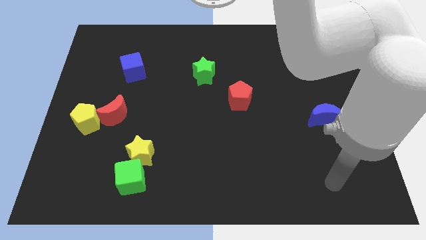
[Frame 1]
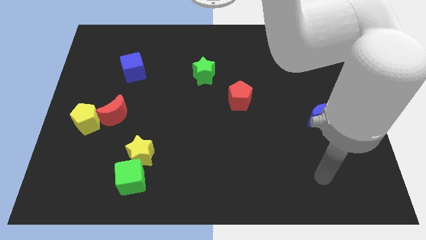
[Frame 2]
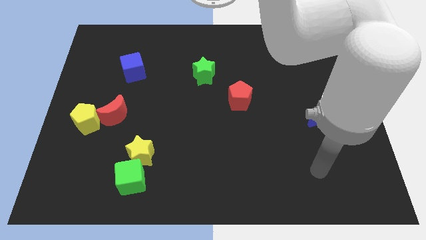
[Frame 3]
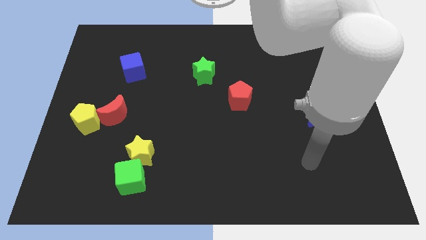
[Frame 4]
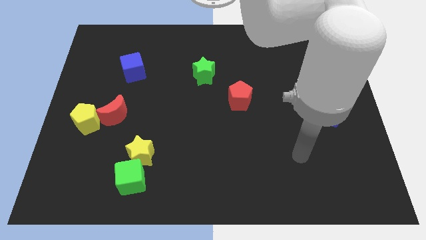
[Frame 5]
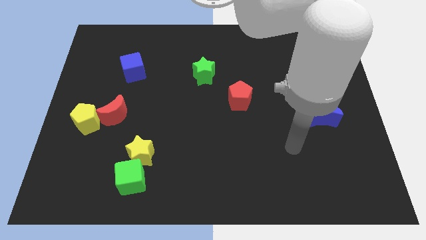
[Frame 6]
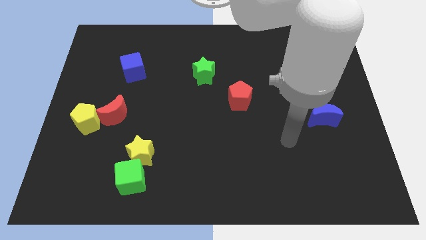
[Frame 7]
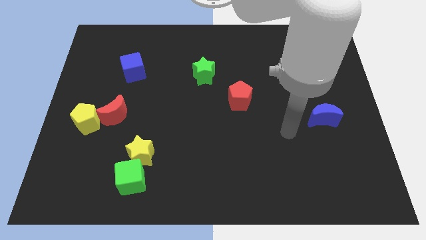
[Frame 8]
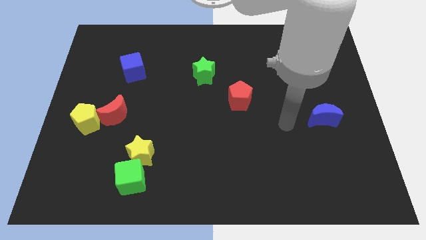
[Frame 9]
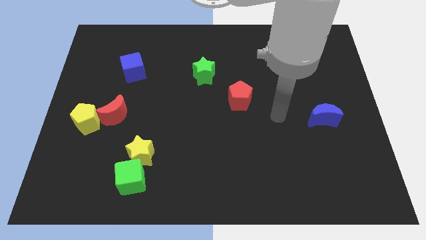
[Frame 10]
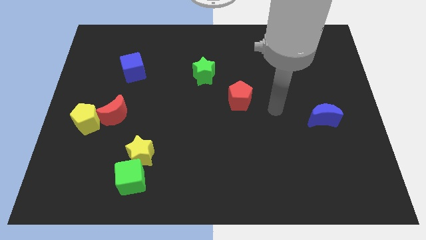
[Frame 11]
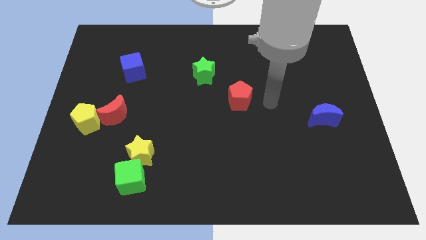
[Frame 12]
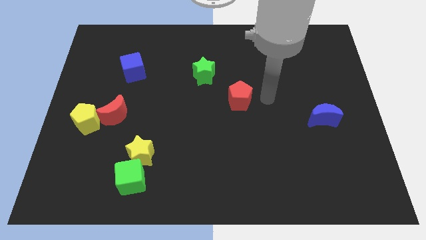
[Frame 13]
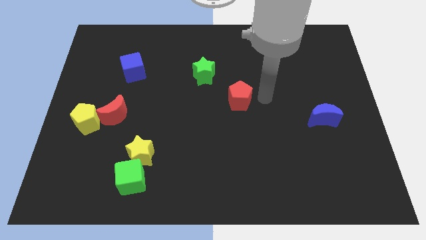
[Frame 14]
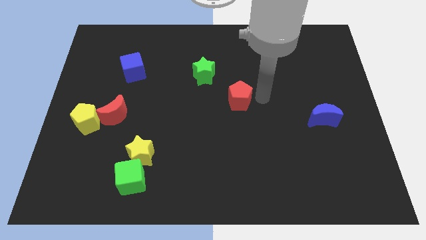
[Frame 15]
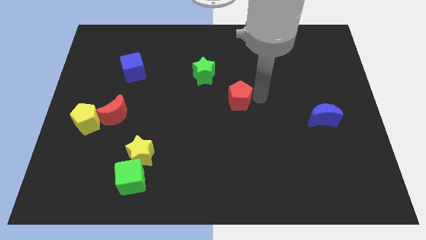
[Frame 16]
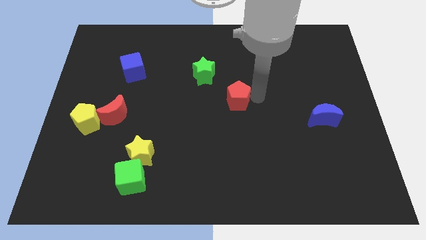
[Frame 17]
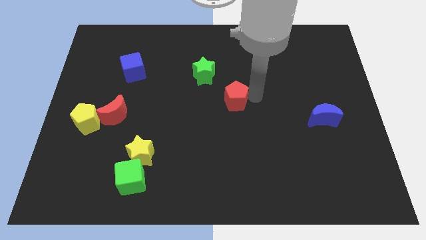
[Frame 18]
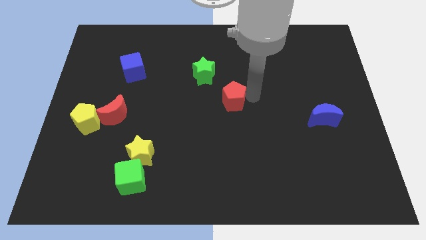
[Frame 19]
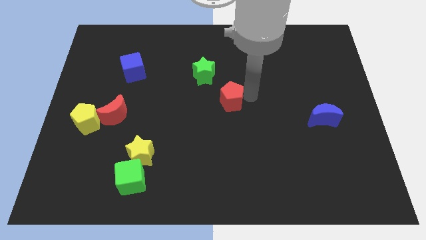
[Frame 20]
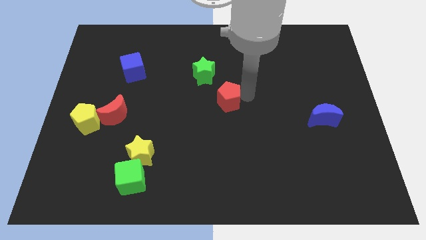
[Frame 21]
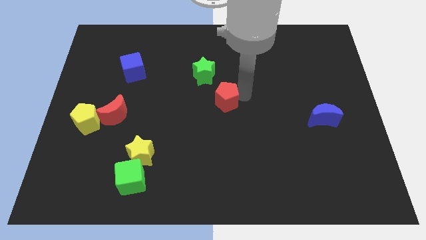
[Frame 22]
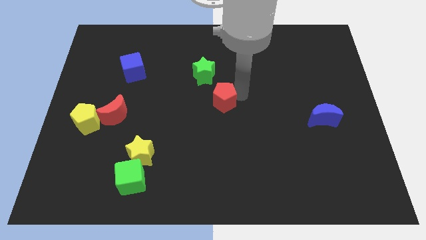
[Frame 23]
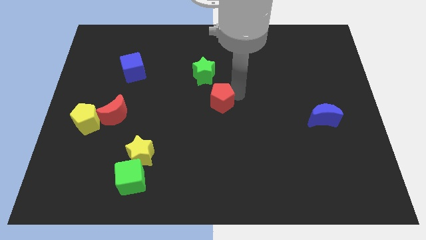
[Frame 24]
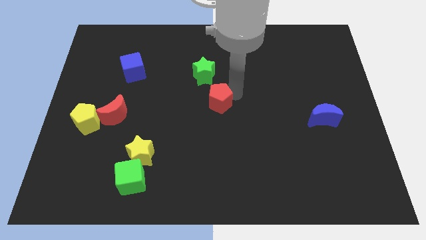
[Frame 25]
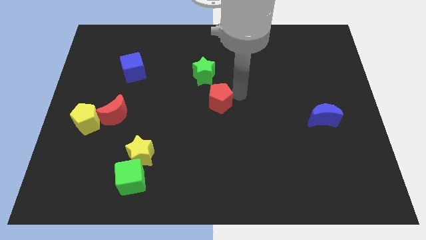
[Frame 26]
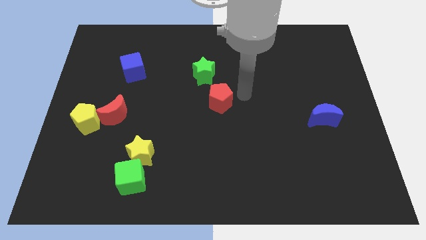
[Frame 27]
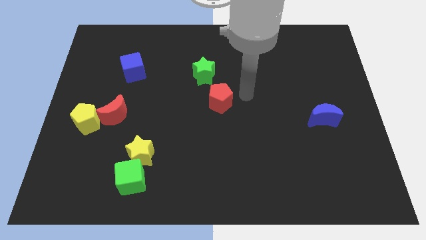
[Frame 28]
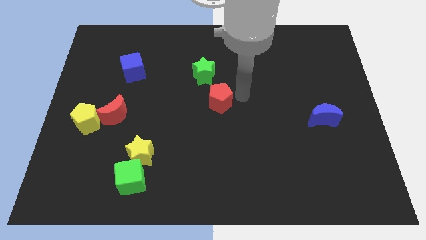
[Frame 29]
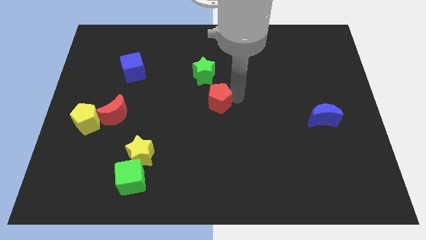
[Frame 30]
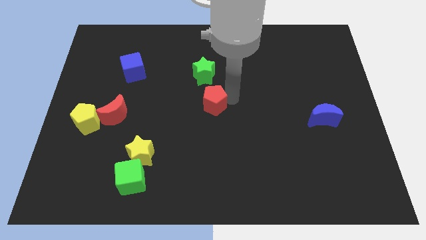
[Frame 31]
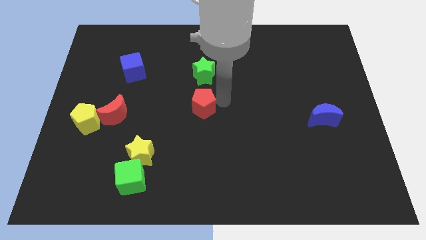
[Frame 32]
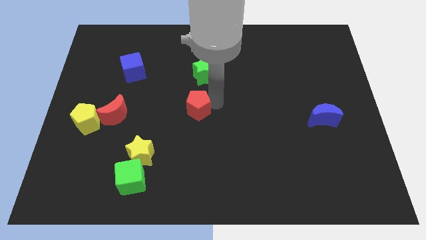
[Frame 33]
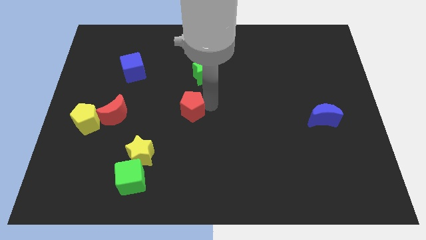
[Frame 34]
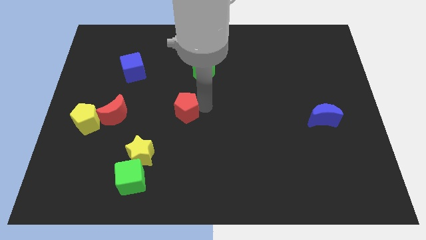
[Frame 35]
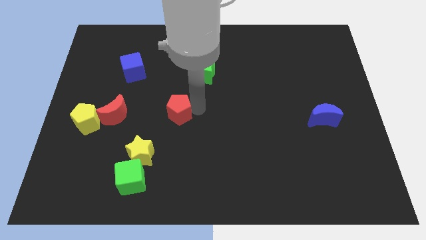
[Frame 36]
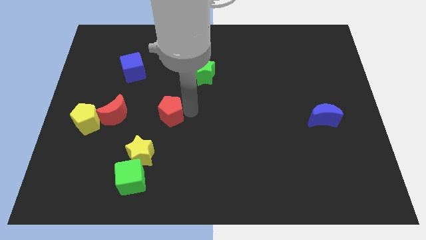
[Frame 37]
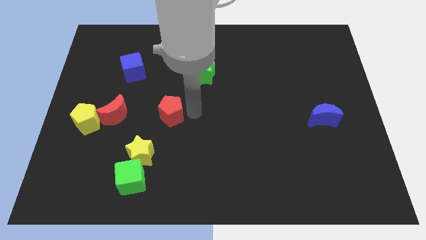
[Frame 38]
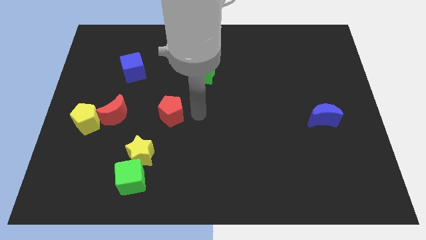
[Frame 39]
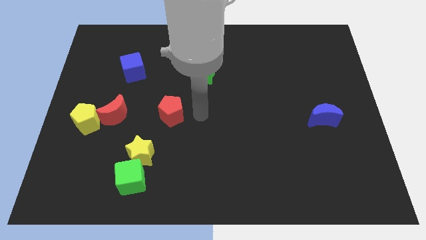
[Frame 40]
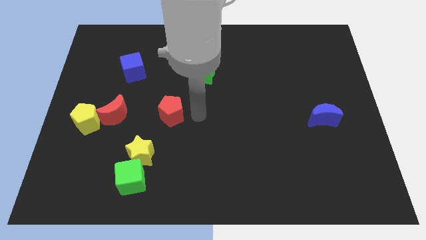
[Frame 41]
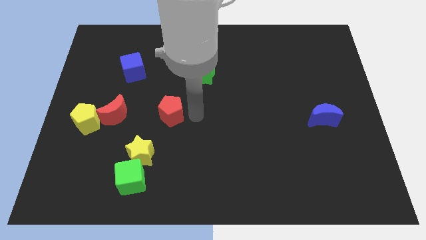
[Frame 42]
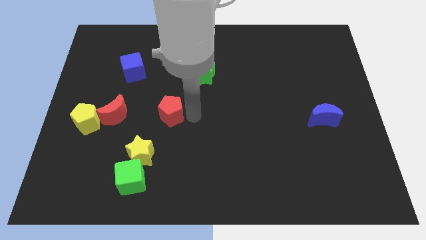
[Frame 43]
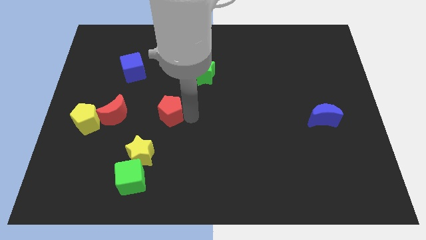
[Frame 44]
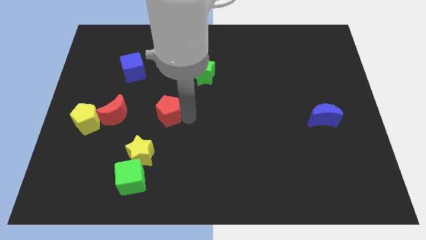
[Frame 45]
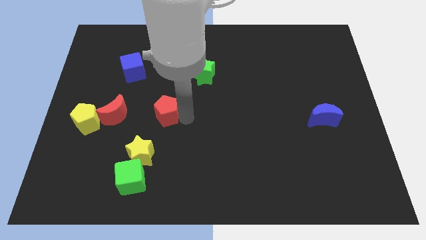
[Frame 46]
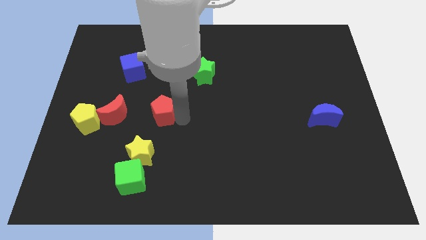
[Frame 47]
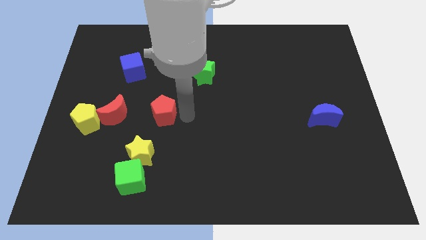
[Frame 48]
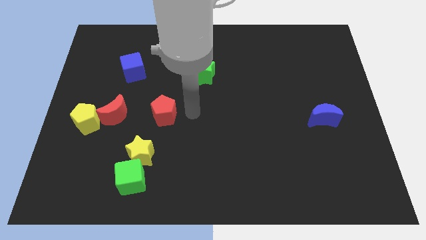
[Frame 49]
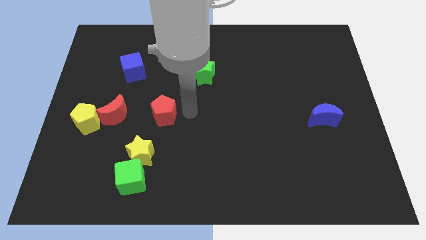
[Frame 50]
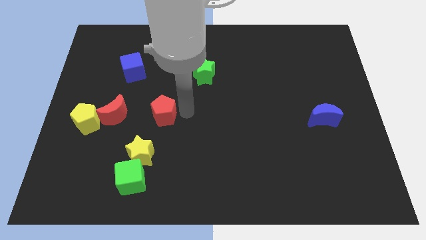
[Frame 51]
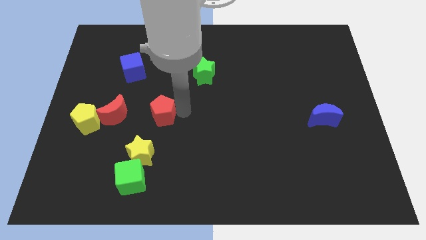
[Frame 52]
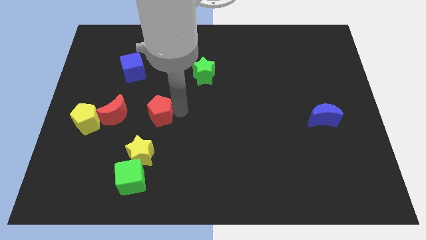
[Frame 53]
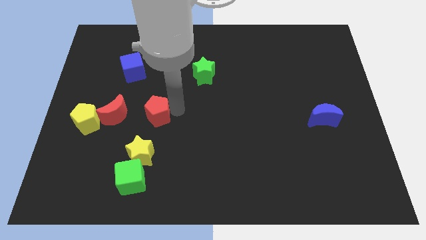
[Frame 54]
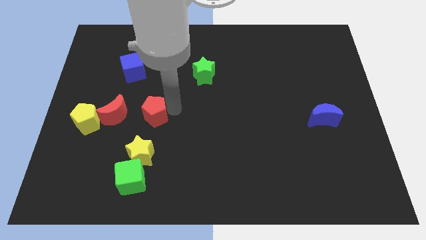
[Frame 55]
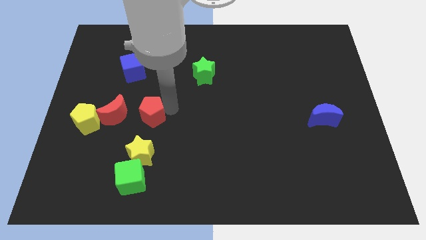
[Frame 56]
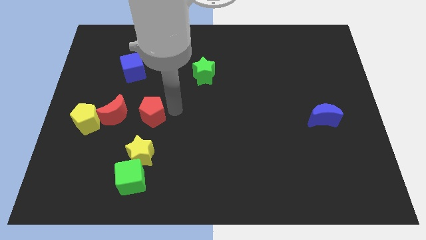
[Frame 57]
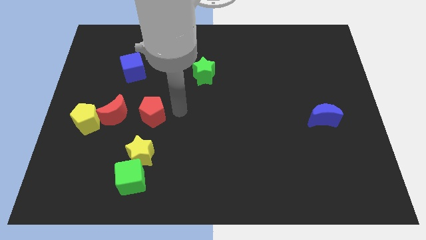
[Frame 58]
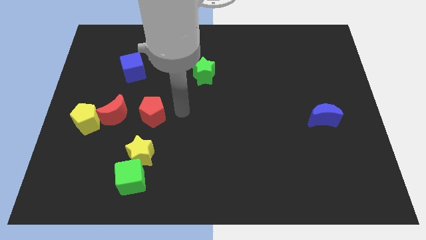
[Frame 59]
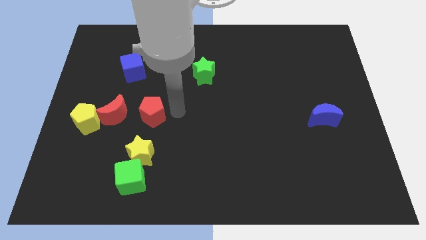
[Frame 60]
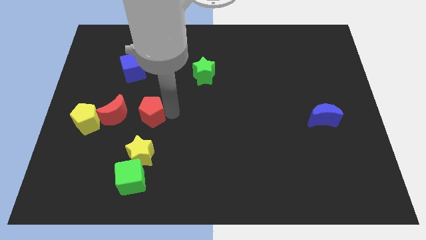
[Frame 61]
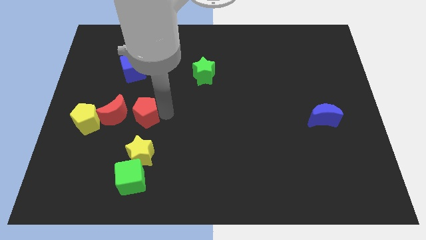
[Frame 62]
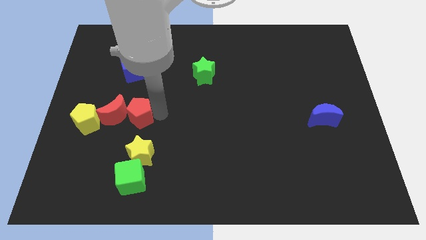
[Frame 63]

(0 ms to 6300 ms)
move the red pentagon next to the red moon
